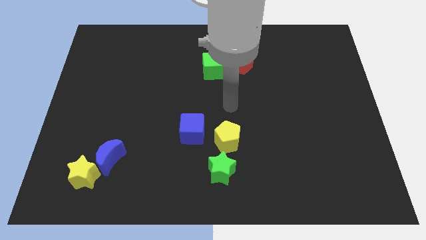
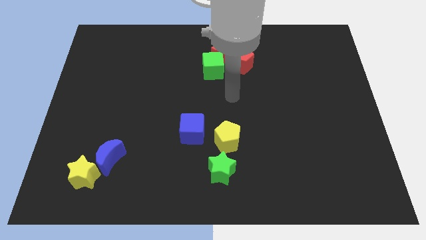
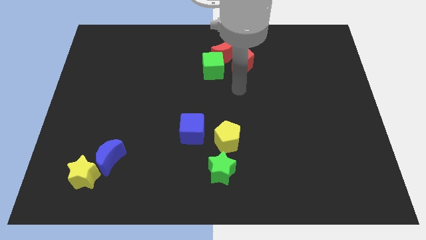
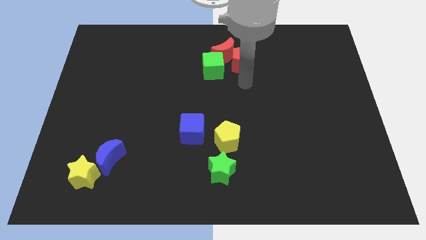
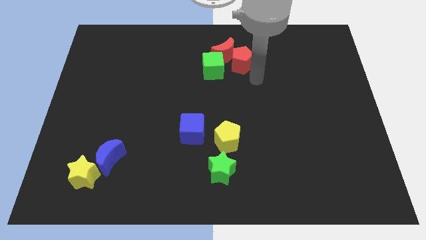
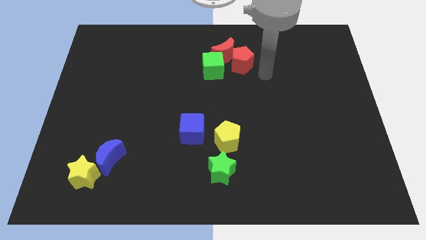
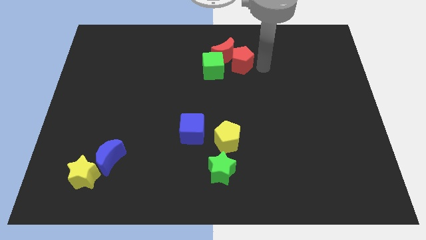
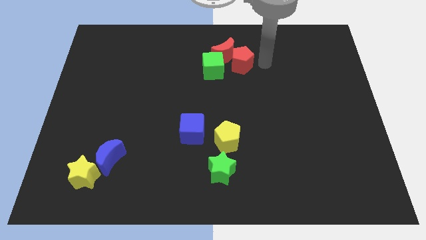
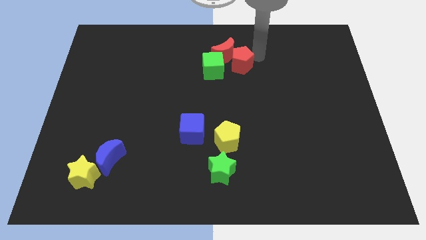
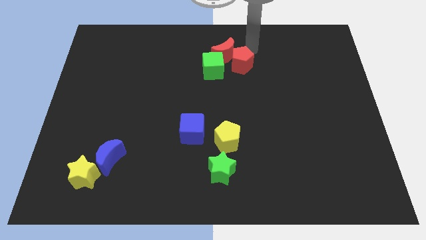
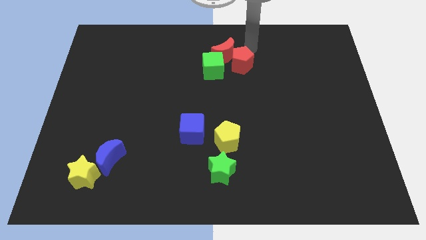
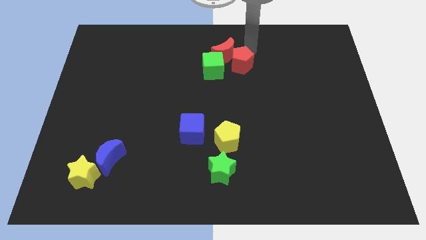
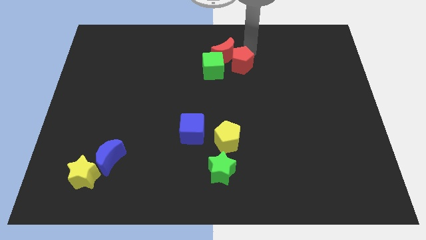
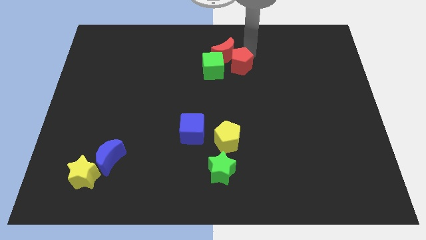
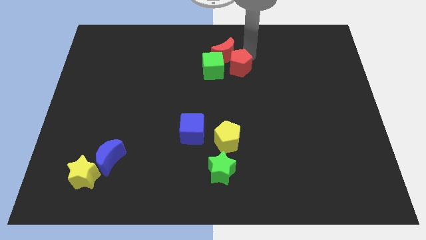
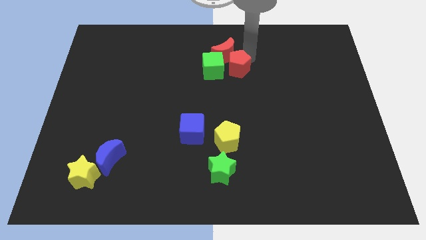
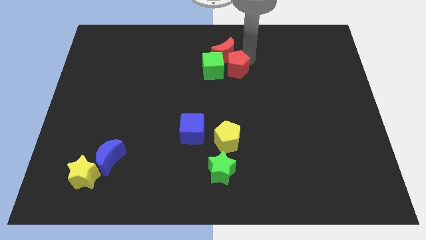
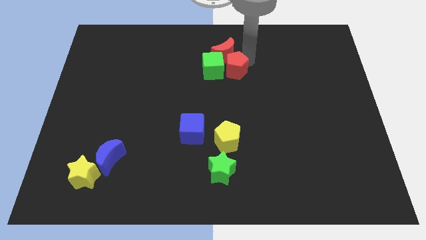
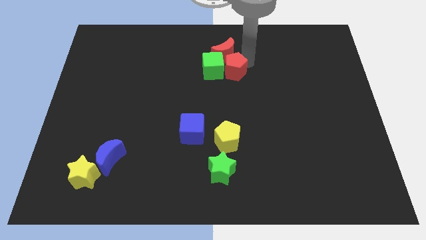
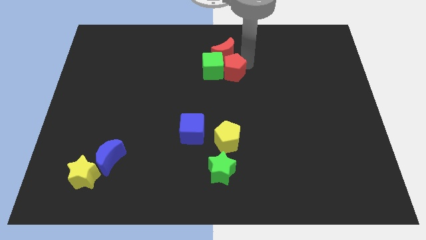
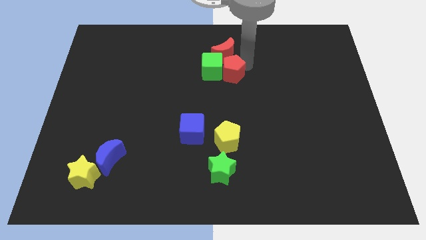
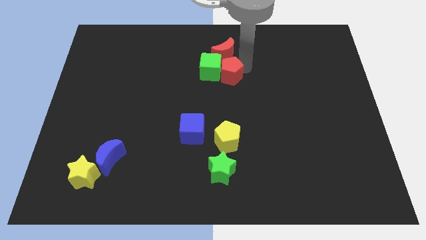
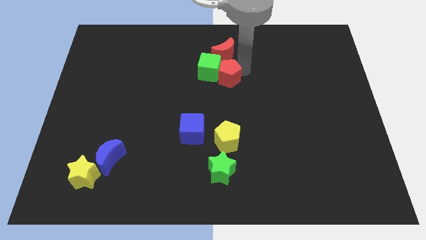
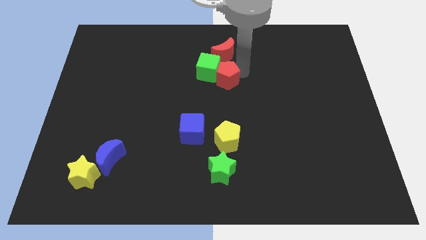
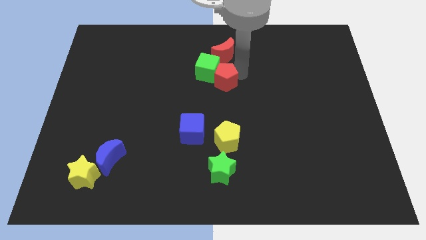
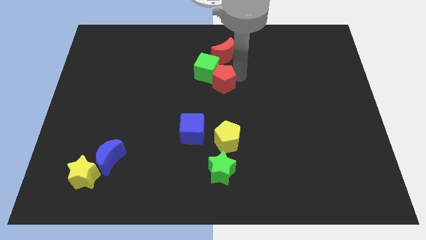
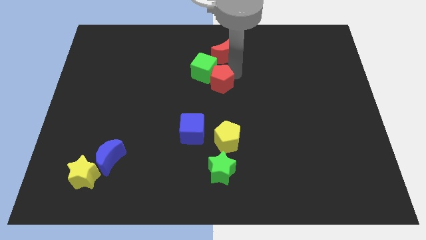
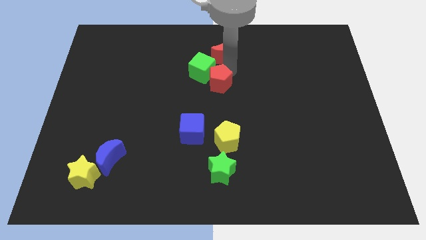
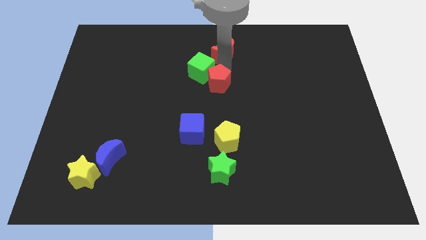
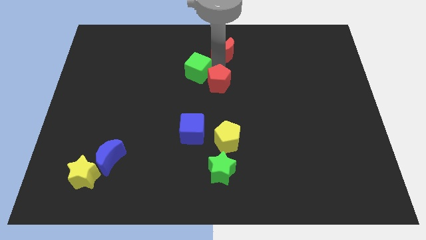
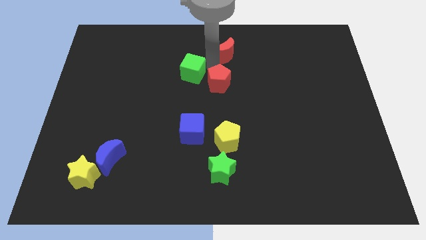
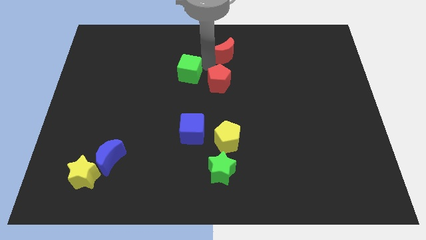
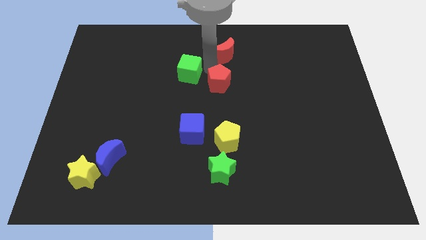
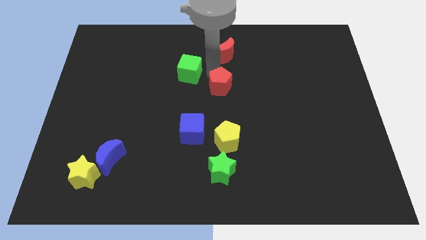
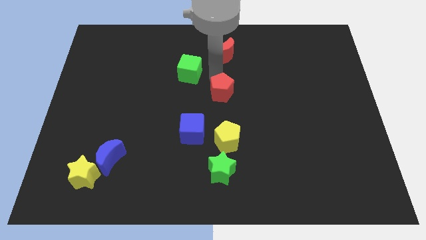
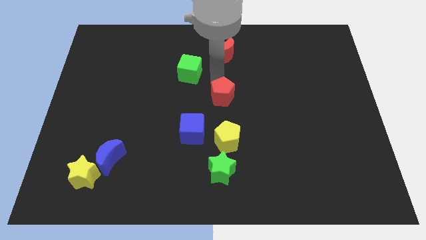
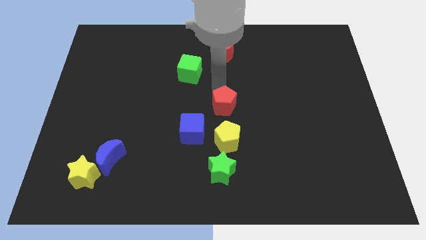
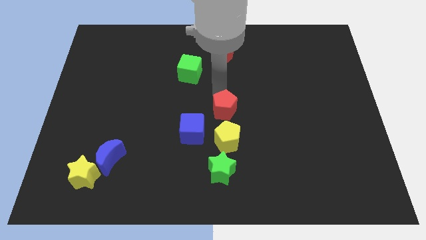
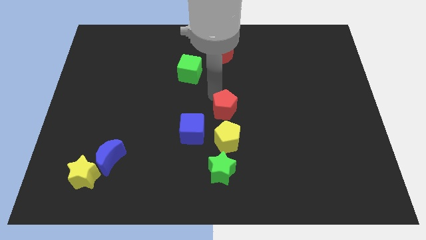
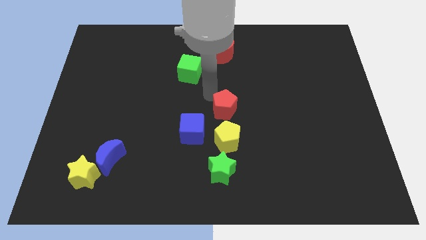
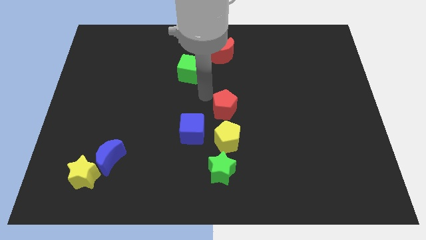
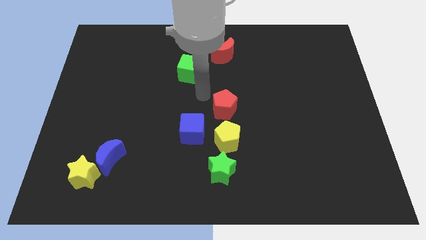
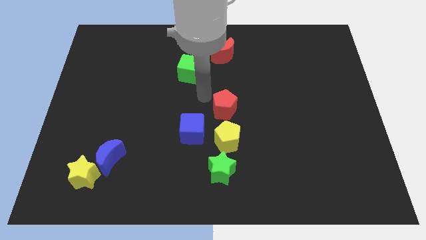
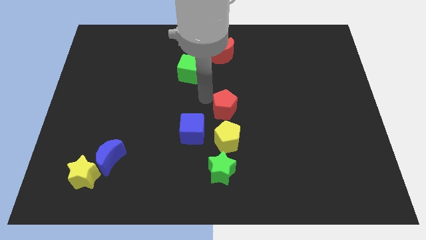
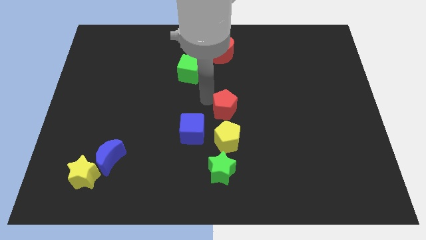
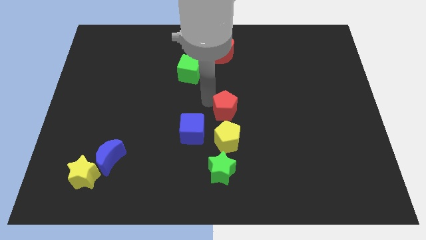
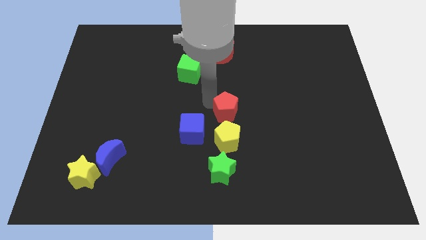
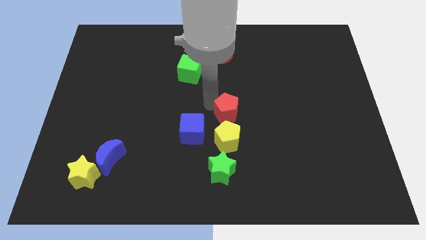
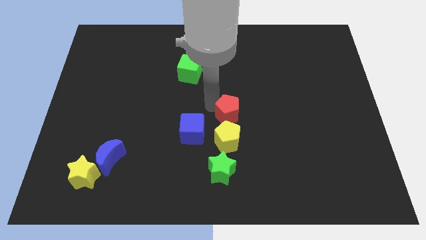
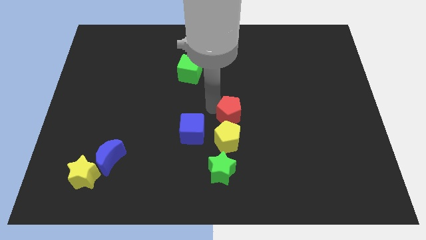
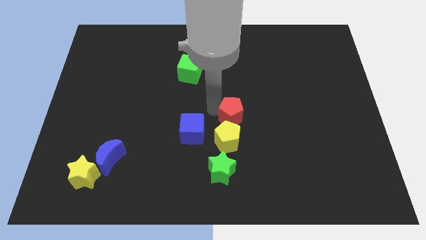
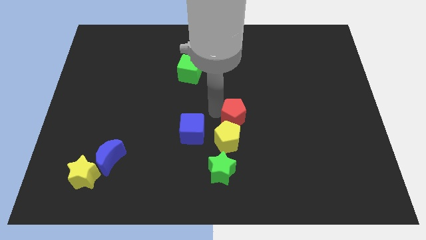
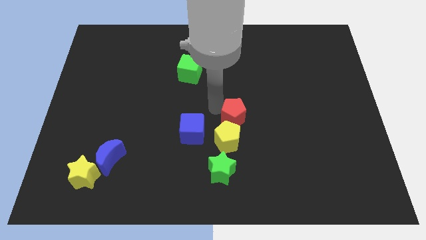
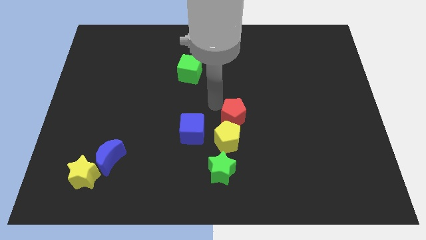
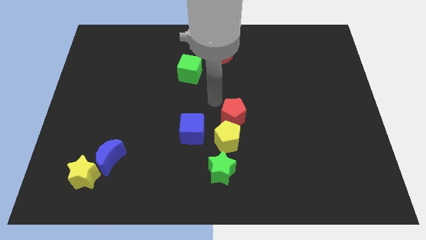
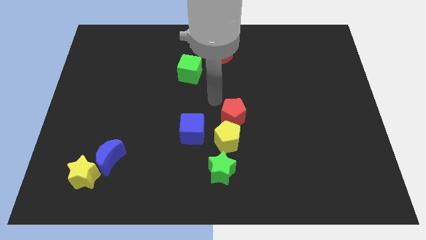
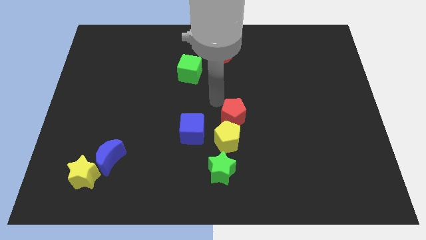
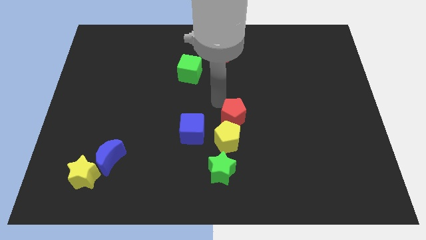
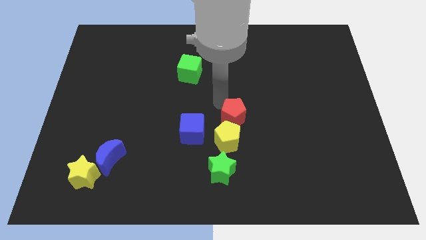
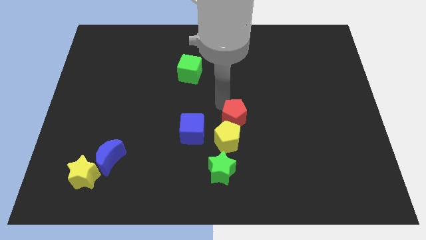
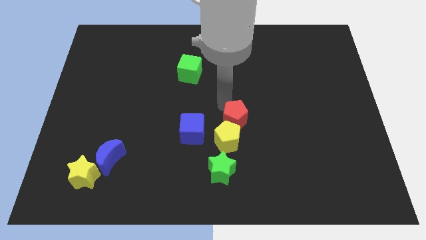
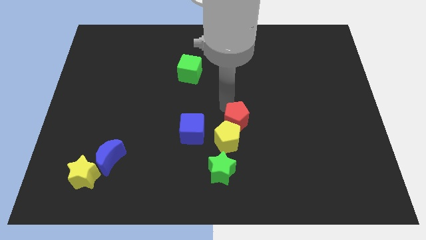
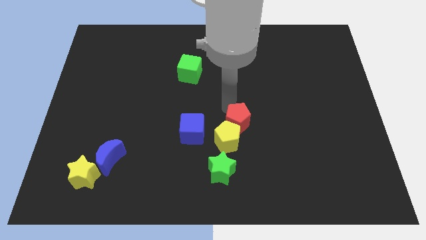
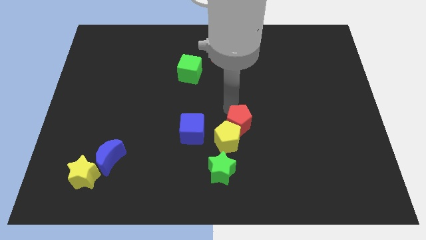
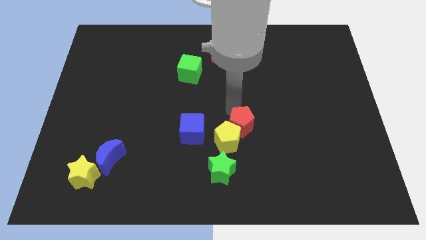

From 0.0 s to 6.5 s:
move the red pentagon down

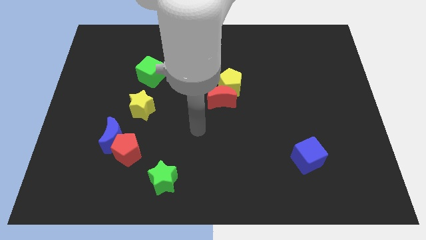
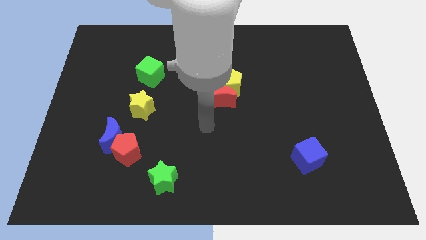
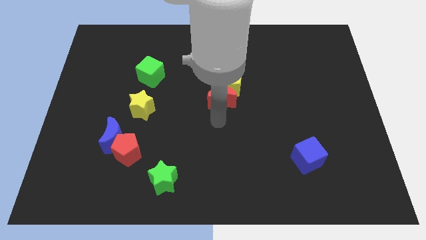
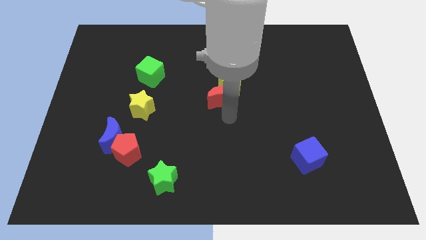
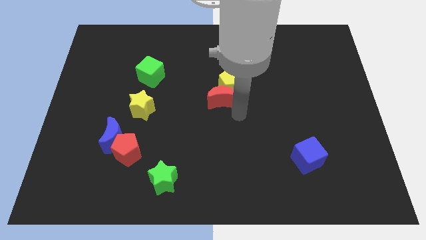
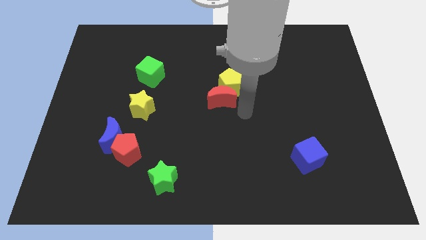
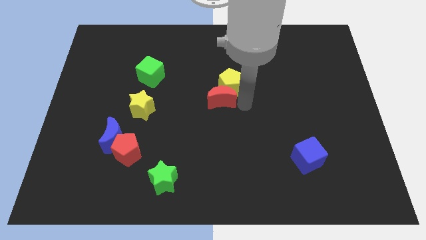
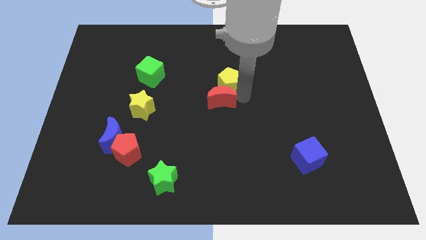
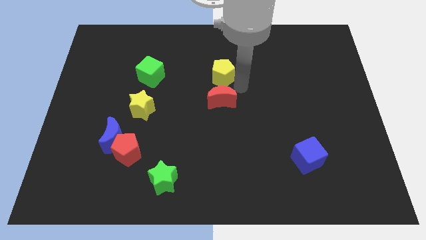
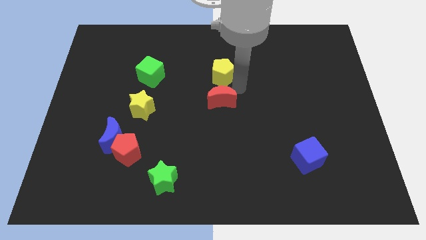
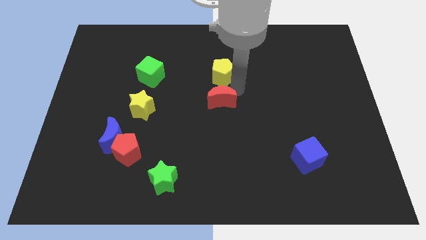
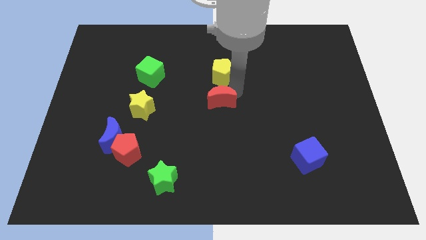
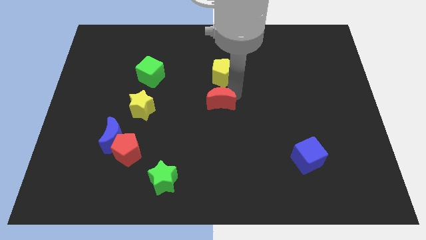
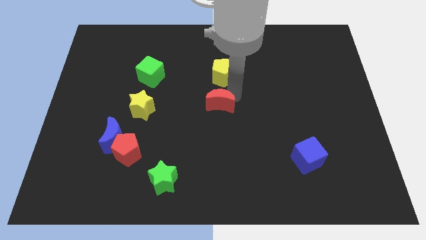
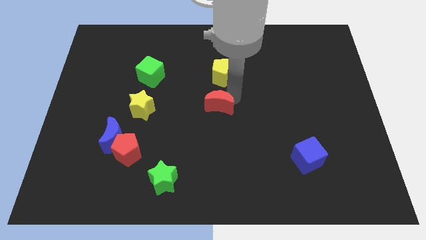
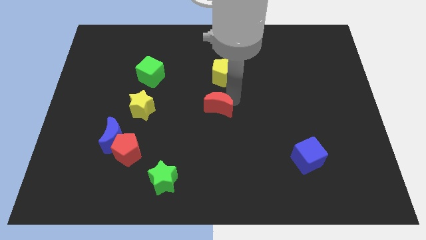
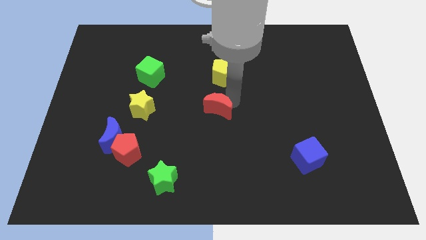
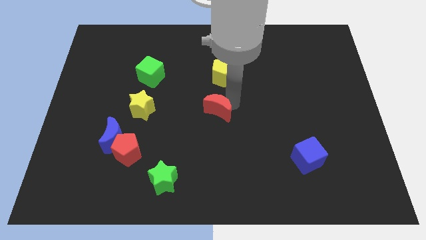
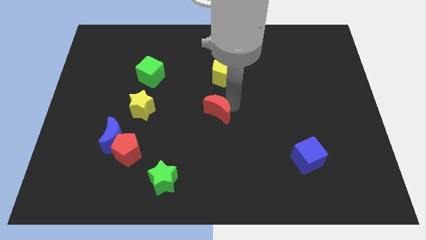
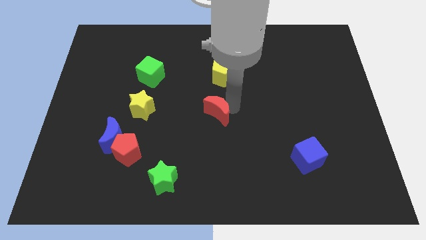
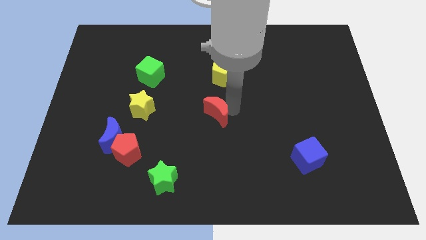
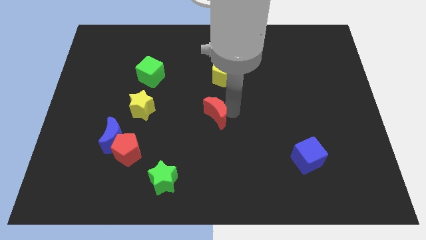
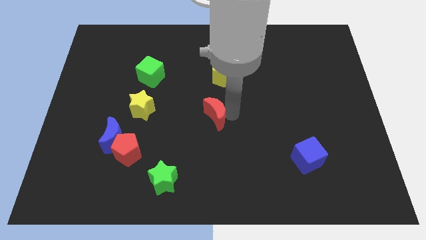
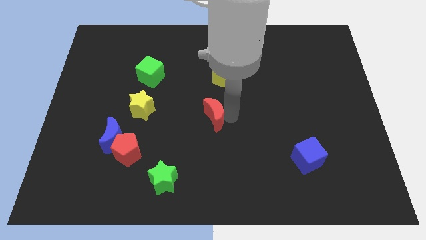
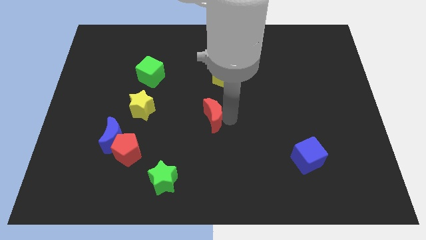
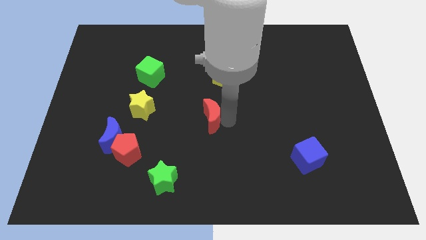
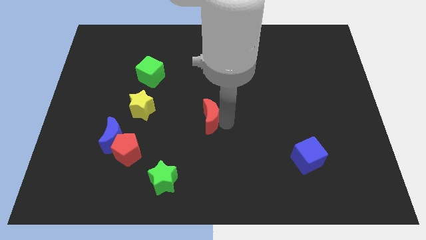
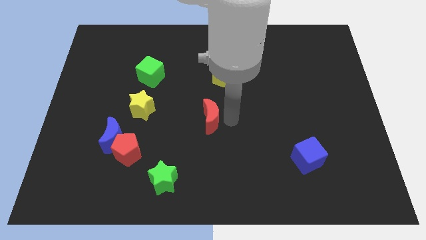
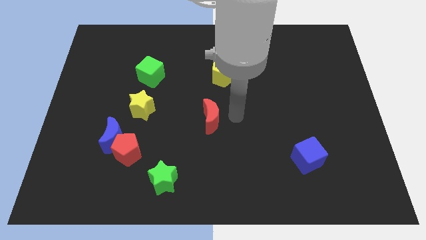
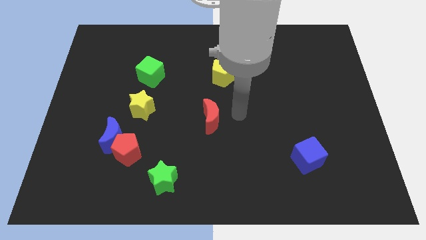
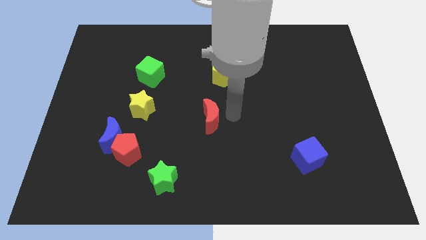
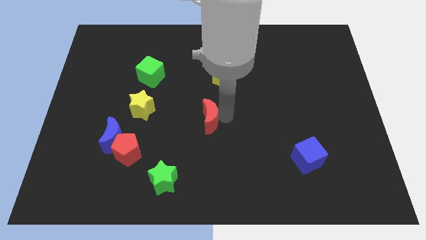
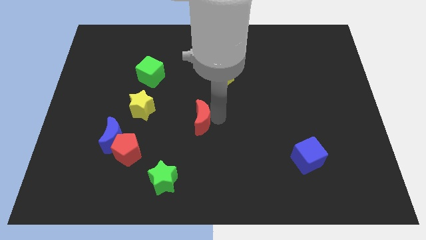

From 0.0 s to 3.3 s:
slightly push the red moon downwards and then to the left
